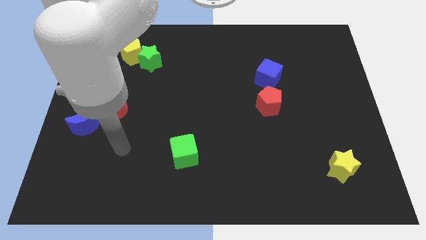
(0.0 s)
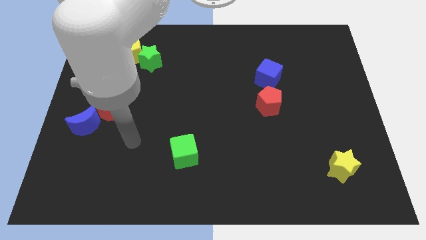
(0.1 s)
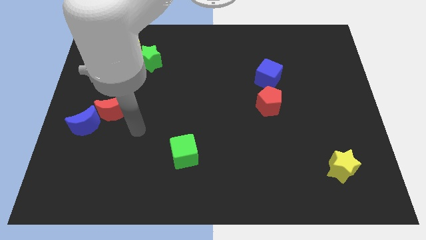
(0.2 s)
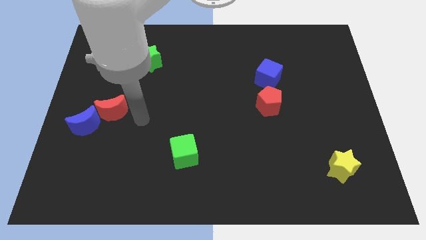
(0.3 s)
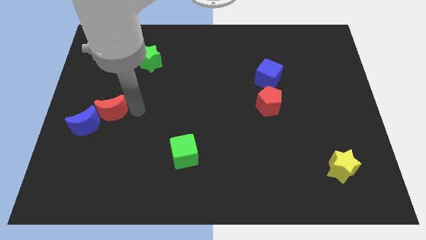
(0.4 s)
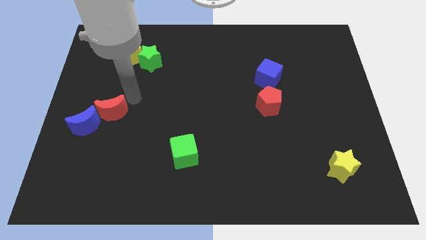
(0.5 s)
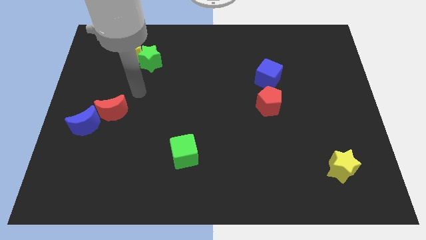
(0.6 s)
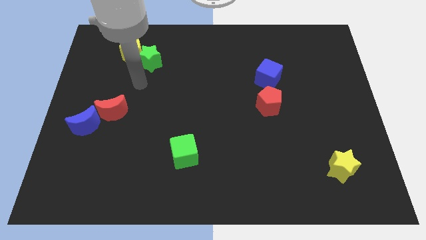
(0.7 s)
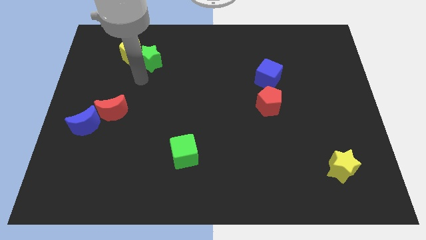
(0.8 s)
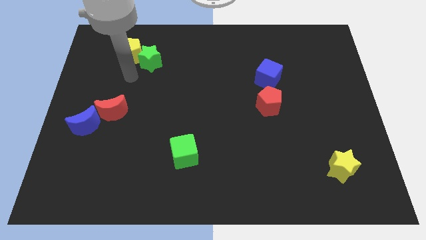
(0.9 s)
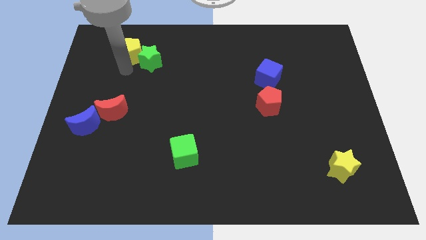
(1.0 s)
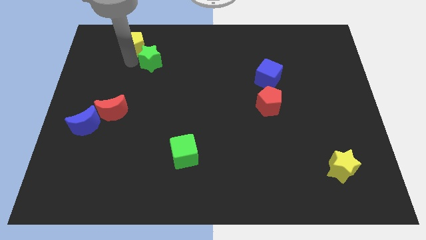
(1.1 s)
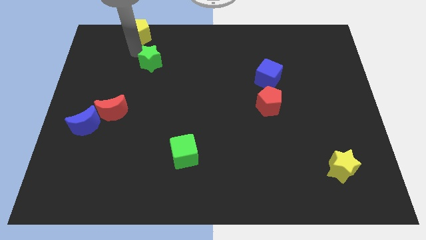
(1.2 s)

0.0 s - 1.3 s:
separate the green star from the yellow pentagon

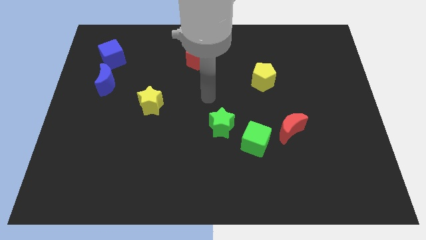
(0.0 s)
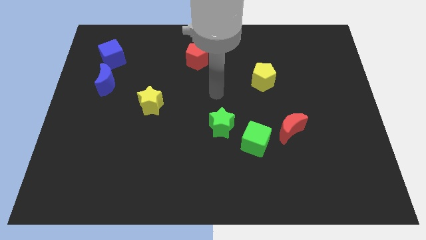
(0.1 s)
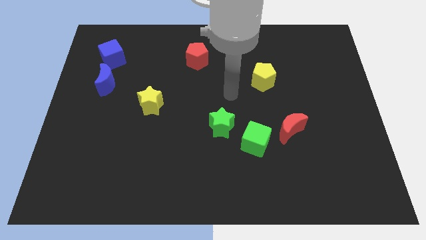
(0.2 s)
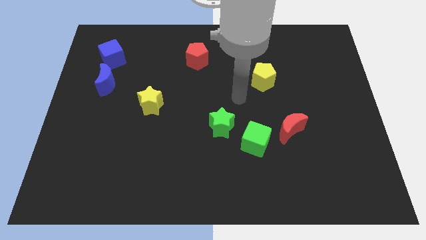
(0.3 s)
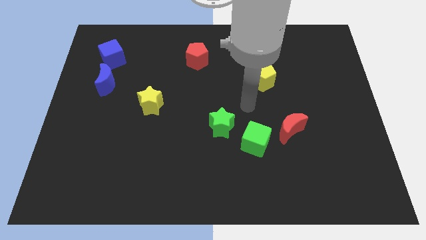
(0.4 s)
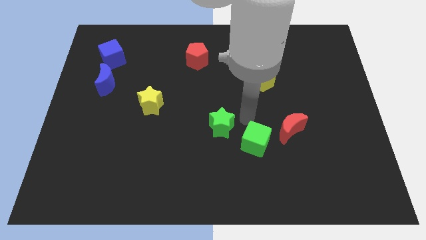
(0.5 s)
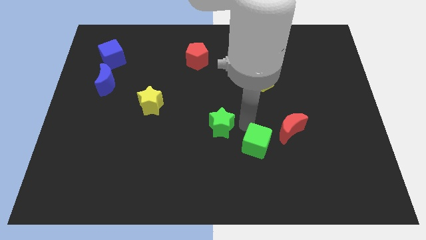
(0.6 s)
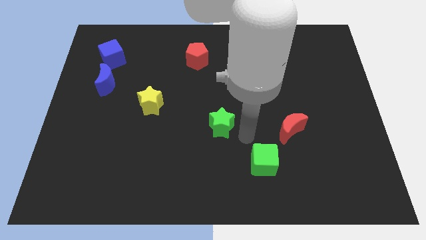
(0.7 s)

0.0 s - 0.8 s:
separate the green star from the green cube

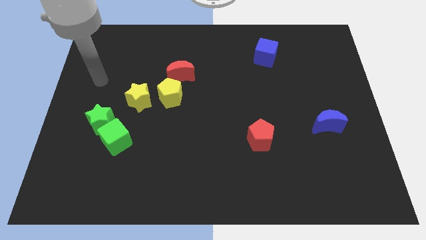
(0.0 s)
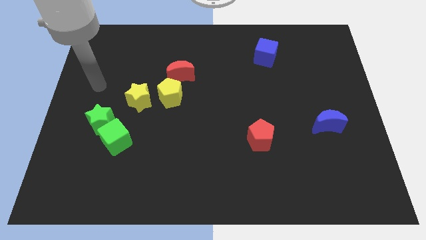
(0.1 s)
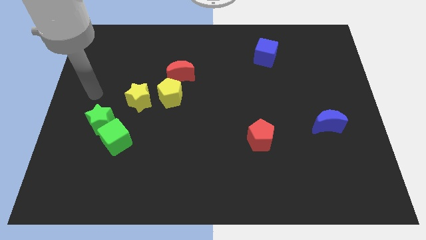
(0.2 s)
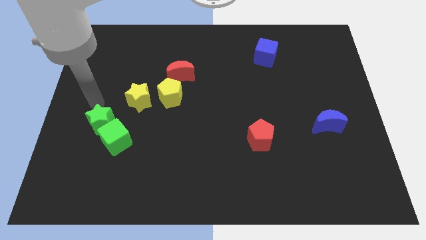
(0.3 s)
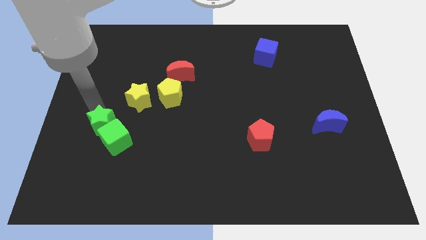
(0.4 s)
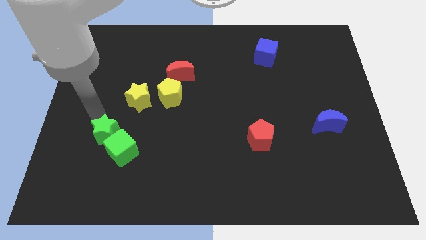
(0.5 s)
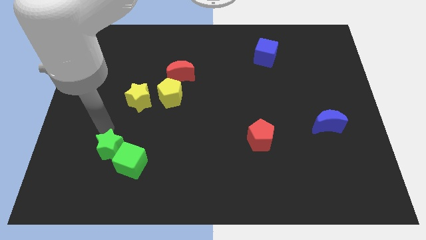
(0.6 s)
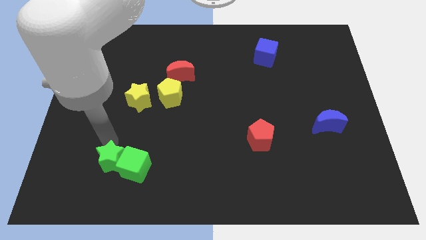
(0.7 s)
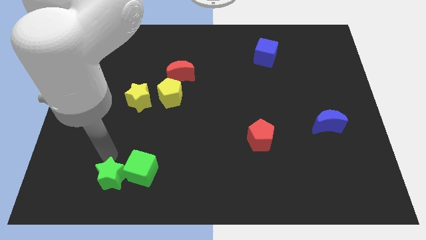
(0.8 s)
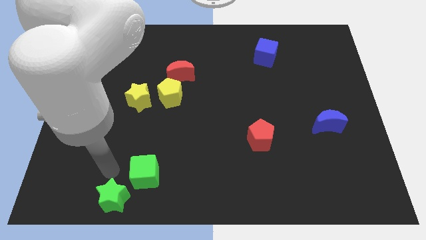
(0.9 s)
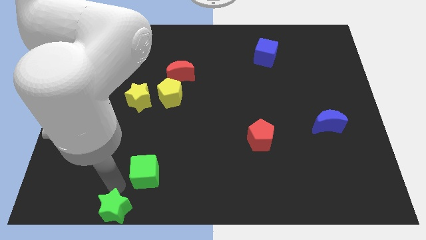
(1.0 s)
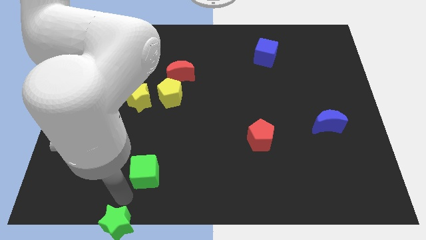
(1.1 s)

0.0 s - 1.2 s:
separate the green cube from the green star

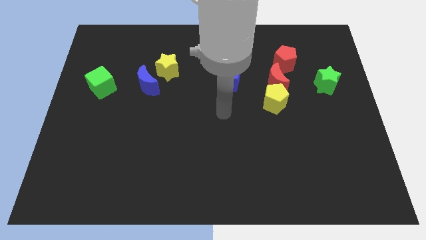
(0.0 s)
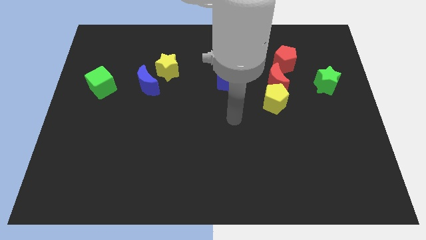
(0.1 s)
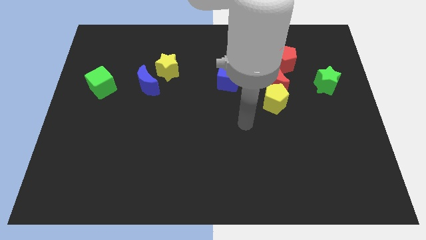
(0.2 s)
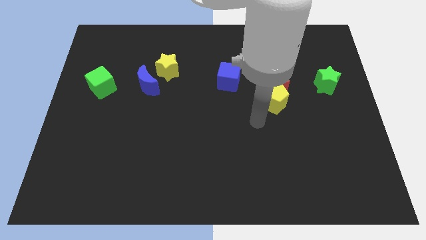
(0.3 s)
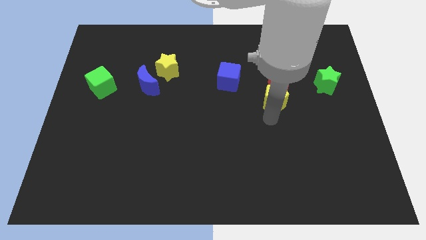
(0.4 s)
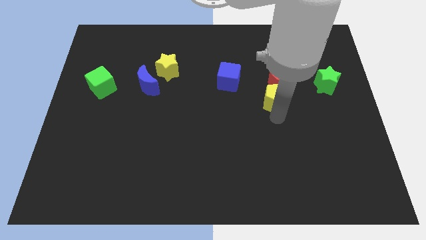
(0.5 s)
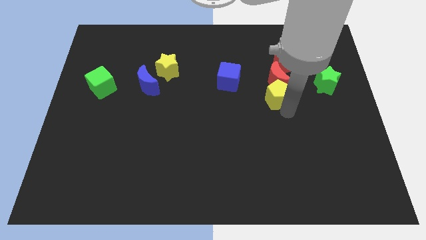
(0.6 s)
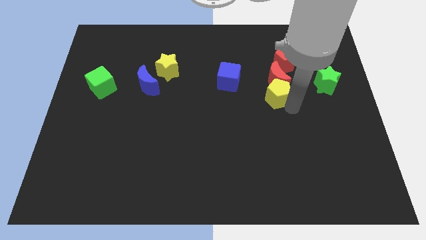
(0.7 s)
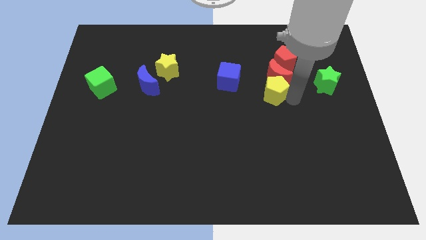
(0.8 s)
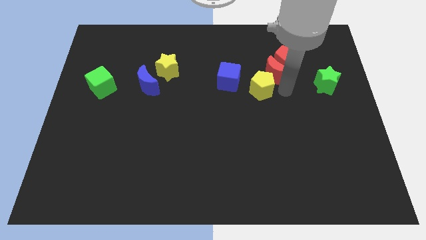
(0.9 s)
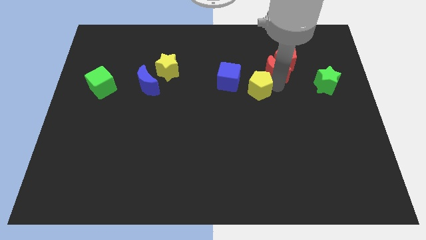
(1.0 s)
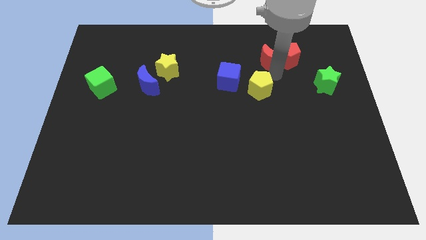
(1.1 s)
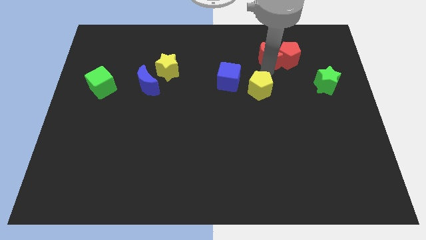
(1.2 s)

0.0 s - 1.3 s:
move the yellow pentagon away from the red moon

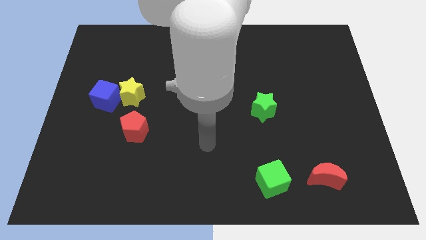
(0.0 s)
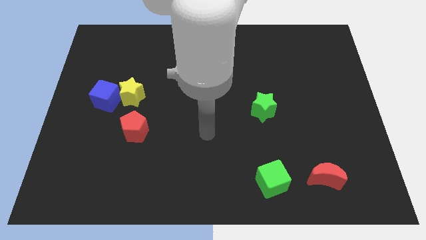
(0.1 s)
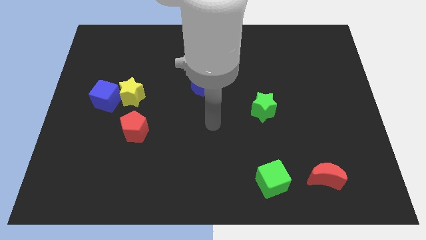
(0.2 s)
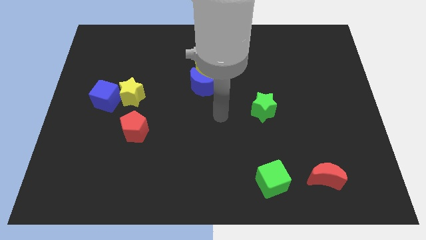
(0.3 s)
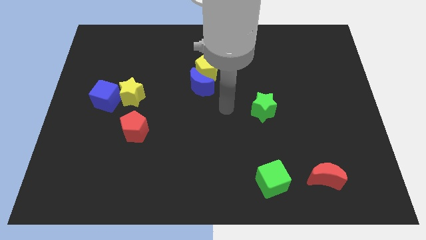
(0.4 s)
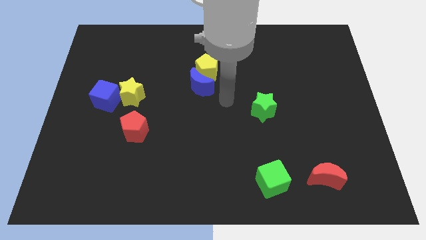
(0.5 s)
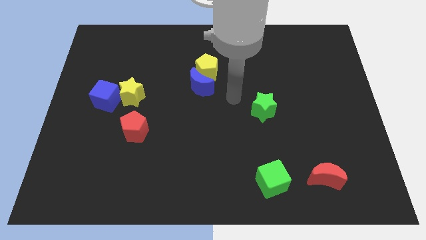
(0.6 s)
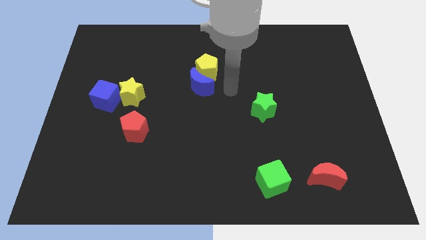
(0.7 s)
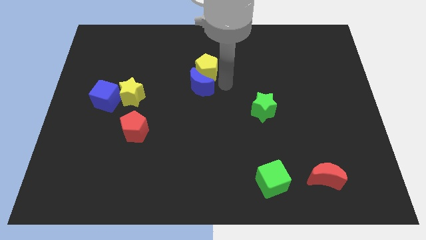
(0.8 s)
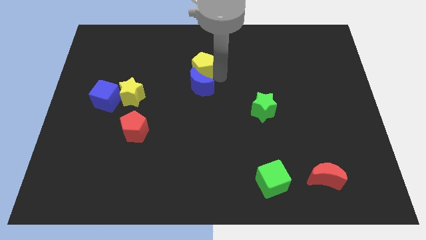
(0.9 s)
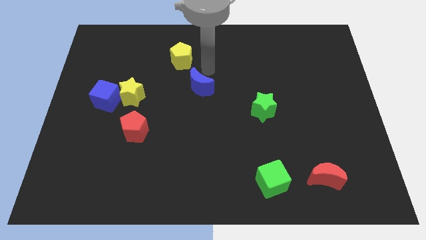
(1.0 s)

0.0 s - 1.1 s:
pull the blue moon apart from the yellow pentagon

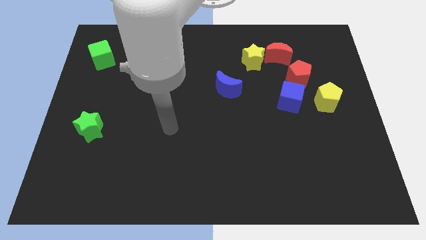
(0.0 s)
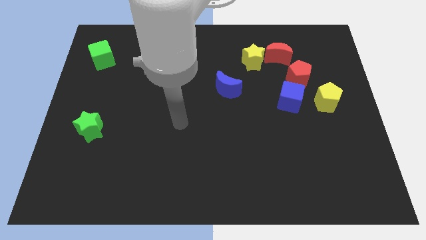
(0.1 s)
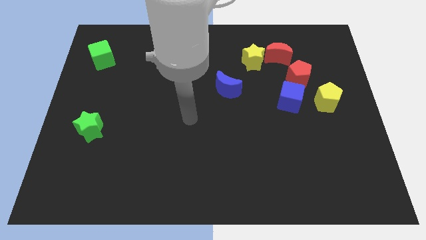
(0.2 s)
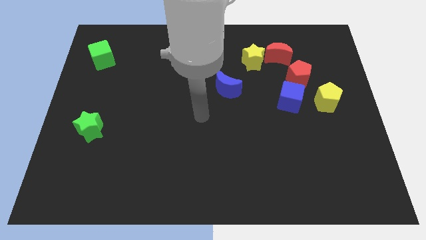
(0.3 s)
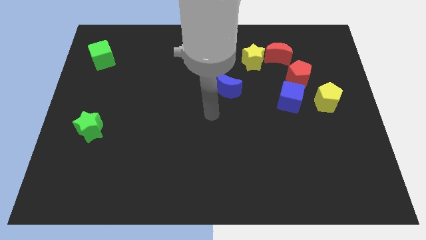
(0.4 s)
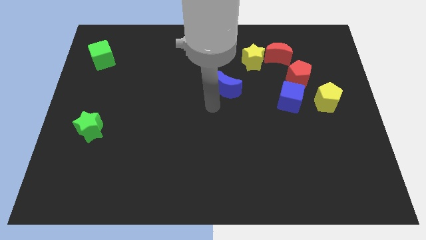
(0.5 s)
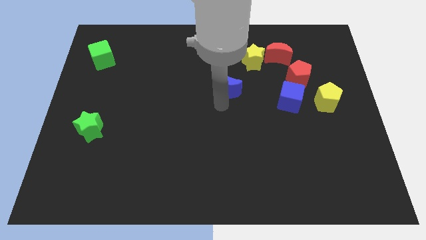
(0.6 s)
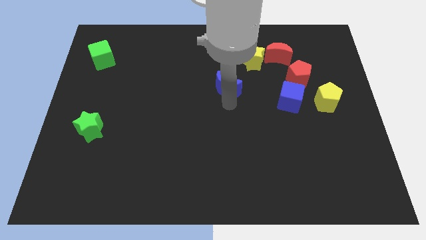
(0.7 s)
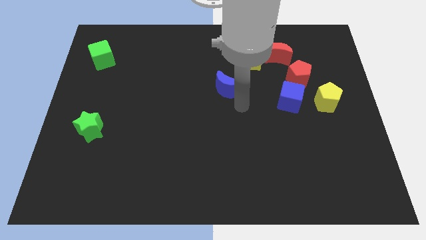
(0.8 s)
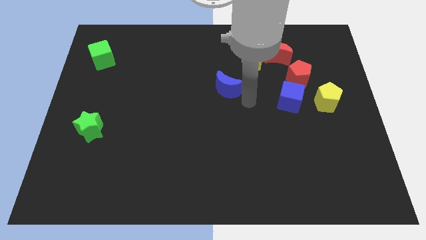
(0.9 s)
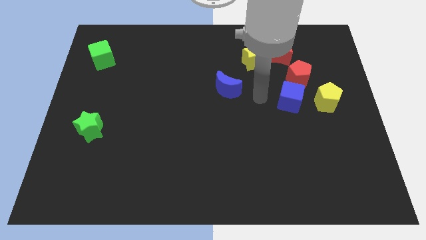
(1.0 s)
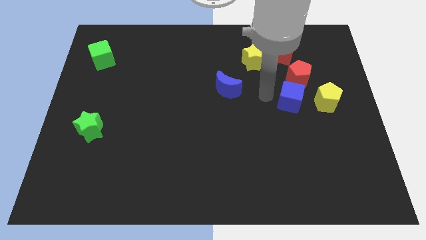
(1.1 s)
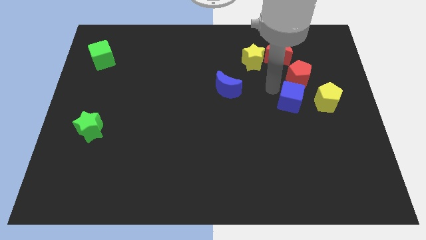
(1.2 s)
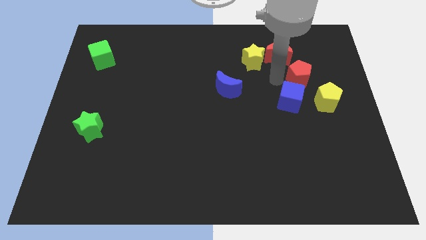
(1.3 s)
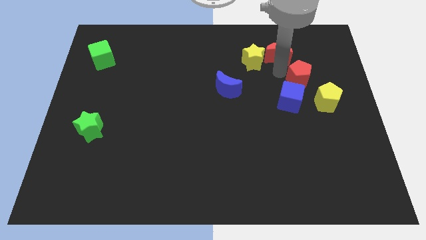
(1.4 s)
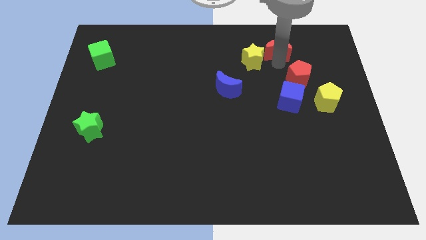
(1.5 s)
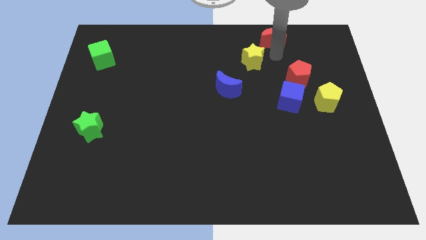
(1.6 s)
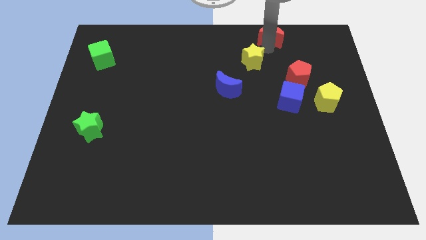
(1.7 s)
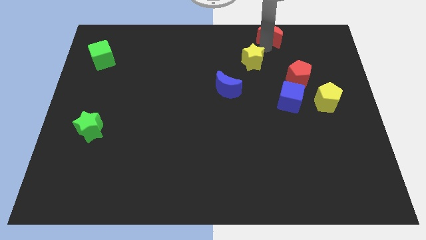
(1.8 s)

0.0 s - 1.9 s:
move the yellow star away from the red moon

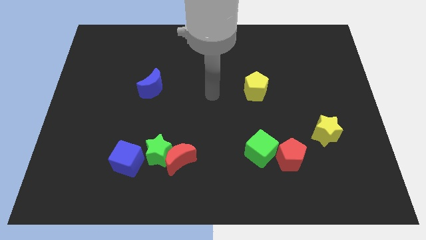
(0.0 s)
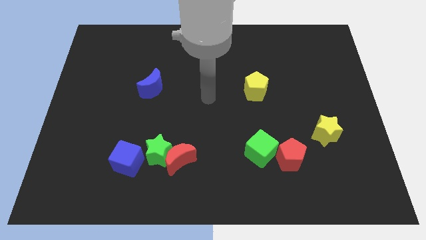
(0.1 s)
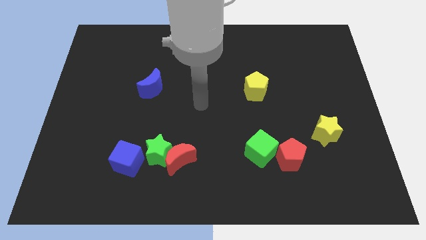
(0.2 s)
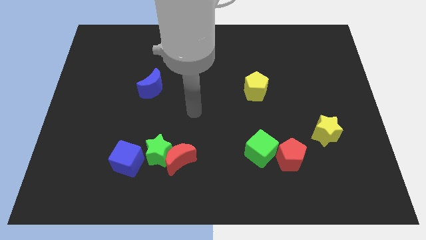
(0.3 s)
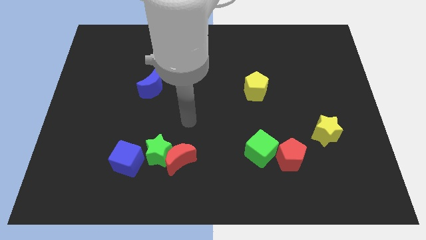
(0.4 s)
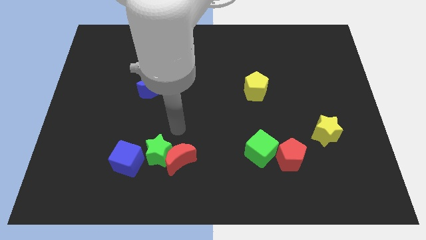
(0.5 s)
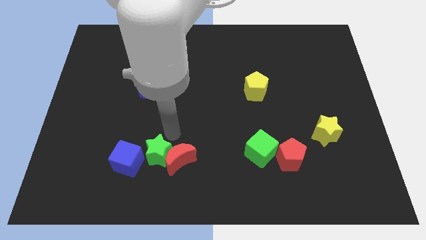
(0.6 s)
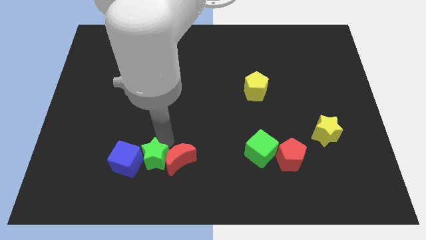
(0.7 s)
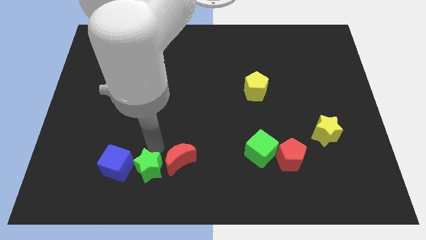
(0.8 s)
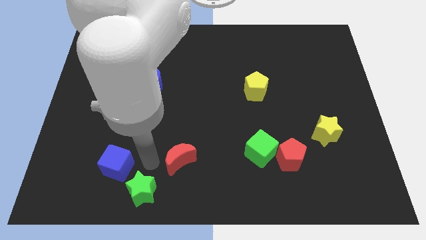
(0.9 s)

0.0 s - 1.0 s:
separate the red moon from the green star

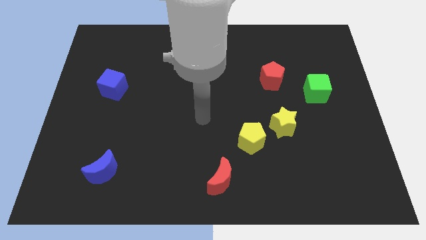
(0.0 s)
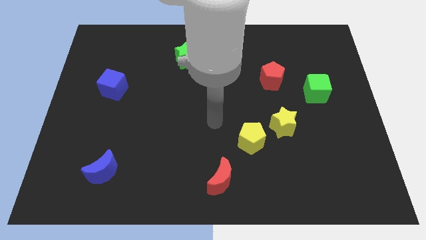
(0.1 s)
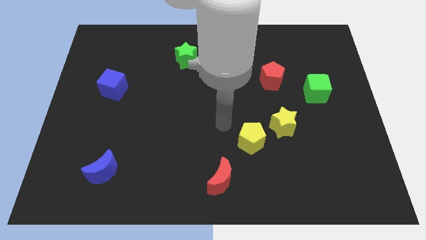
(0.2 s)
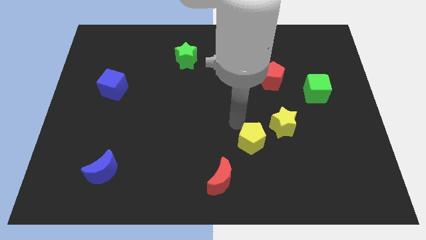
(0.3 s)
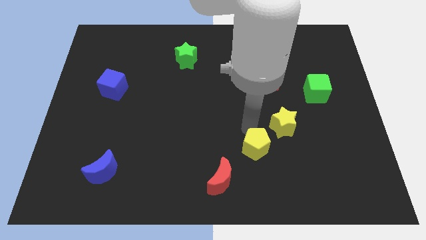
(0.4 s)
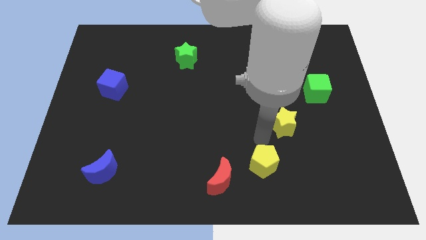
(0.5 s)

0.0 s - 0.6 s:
separate the yellow star from the yellow pentagon
